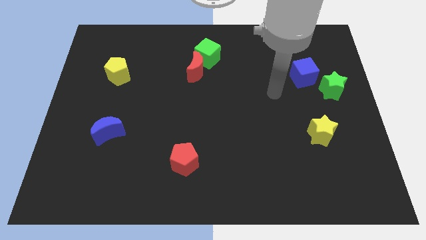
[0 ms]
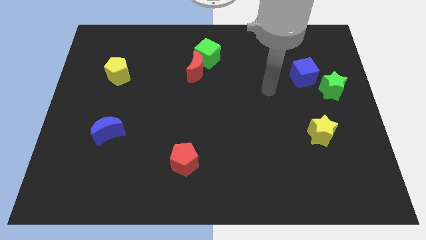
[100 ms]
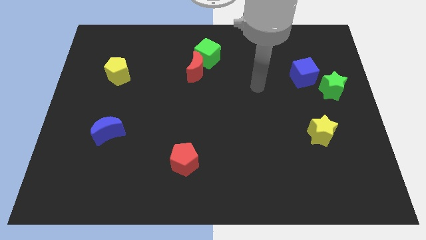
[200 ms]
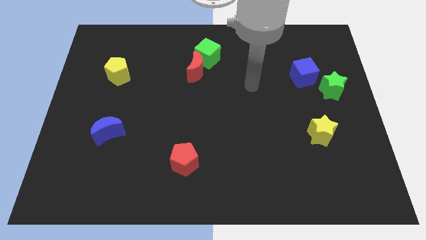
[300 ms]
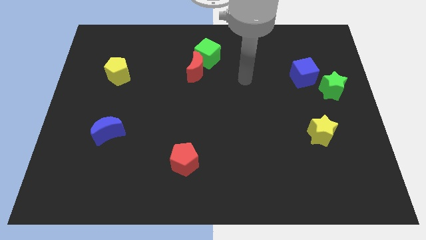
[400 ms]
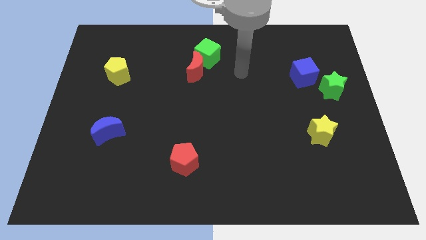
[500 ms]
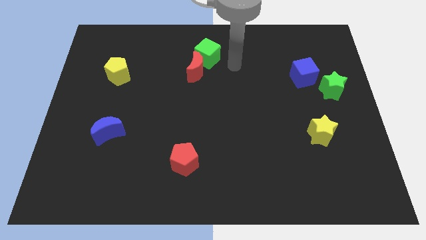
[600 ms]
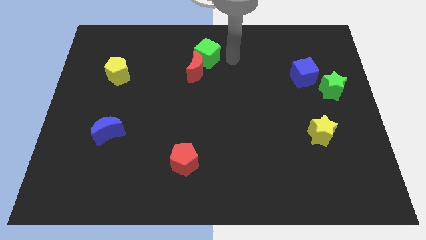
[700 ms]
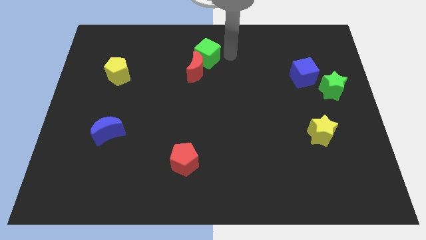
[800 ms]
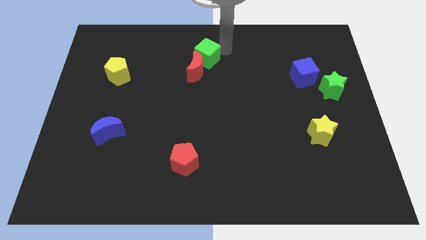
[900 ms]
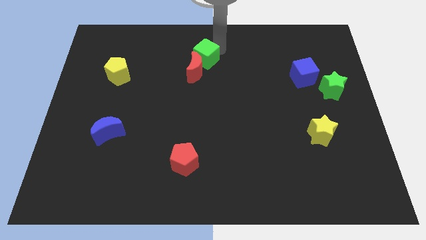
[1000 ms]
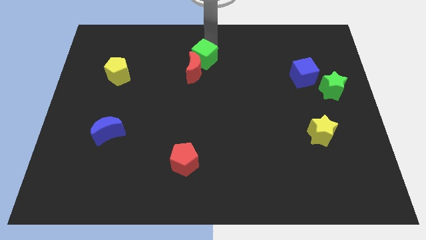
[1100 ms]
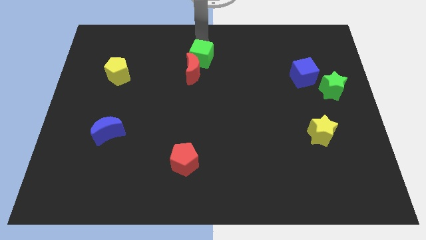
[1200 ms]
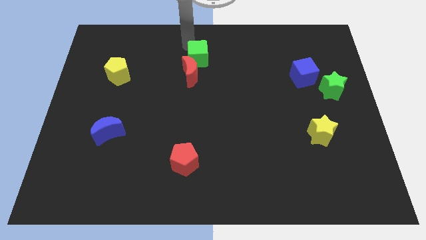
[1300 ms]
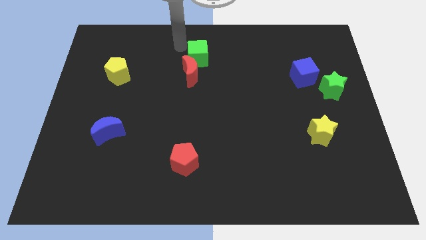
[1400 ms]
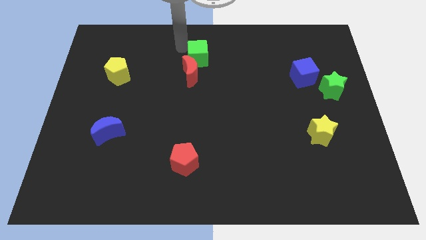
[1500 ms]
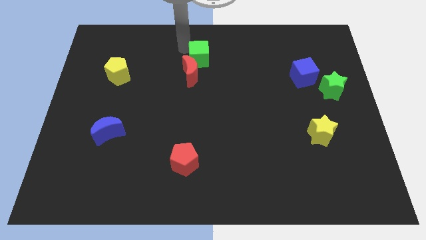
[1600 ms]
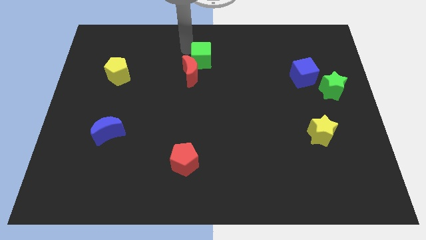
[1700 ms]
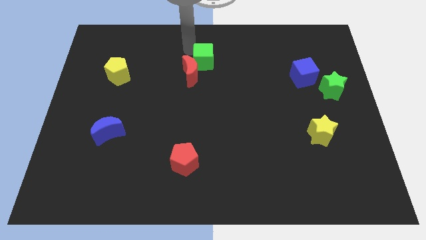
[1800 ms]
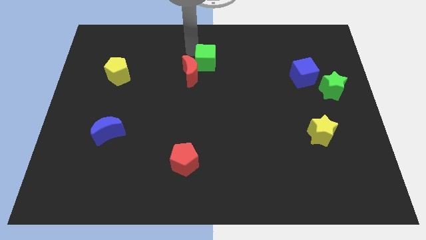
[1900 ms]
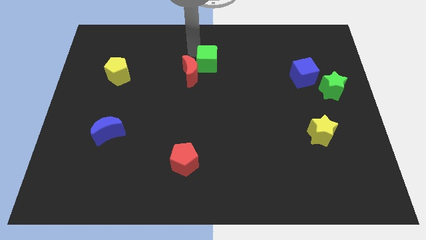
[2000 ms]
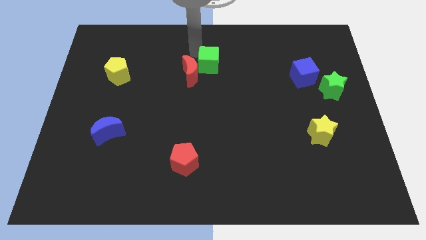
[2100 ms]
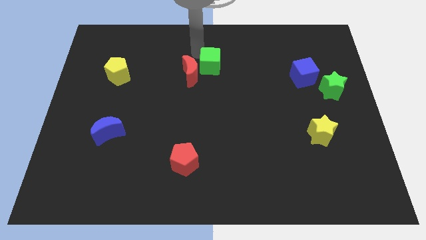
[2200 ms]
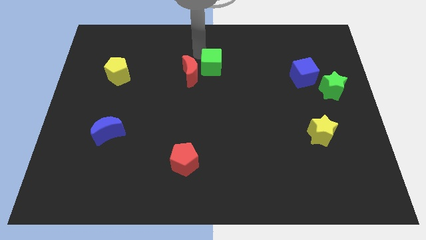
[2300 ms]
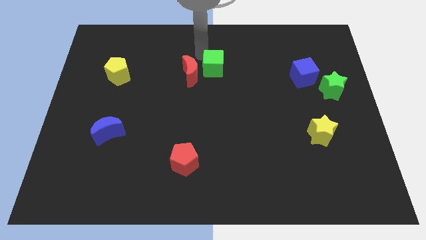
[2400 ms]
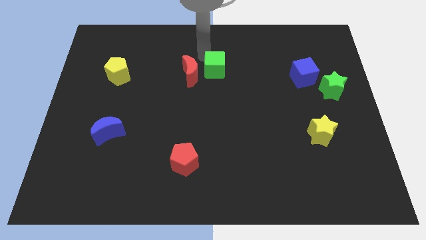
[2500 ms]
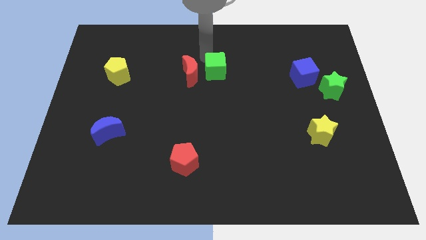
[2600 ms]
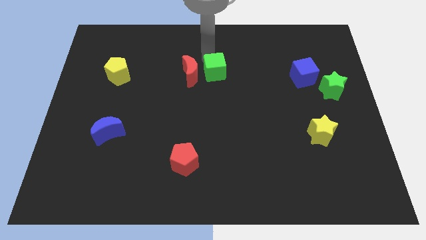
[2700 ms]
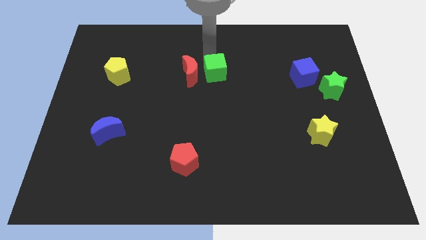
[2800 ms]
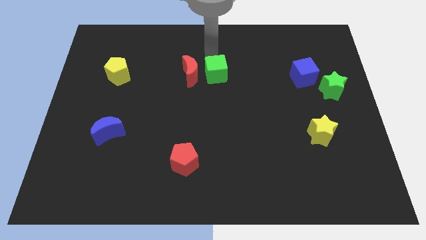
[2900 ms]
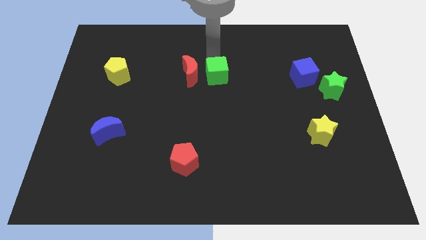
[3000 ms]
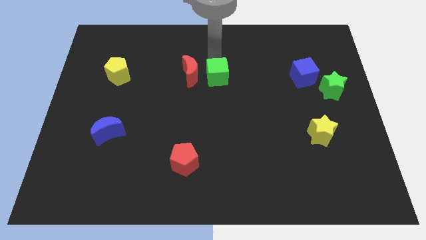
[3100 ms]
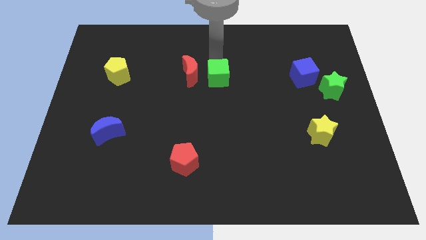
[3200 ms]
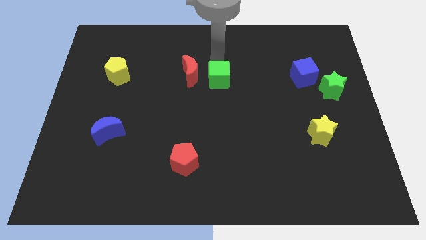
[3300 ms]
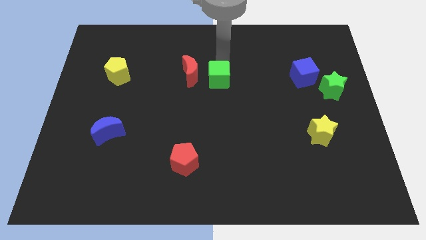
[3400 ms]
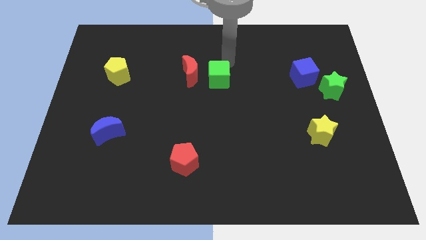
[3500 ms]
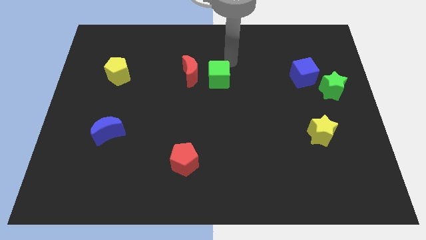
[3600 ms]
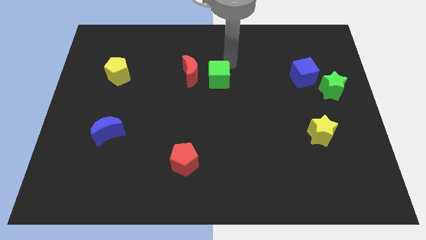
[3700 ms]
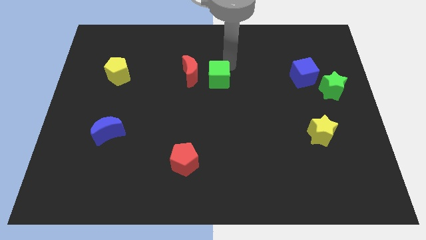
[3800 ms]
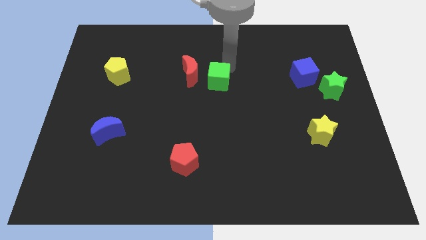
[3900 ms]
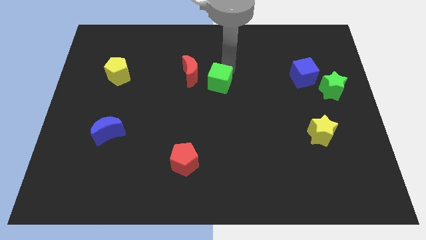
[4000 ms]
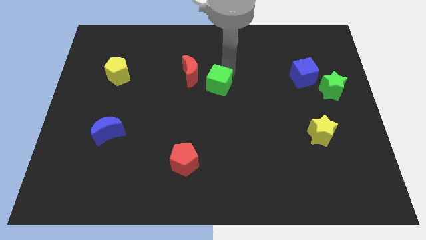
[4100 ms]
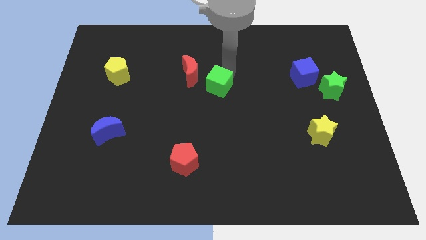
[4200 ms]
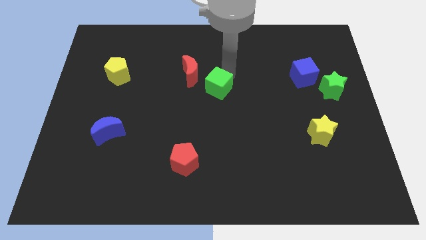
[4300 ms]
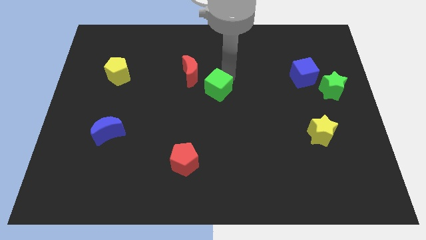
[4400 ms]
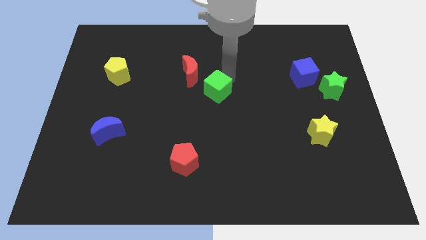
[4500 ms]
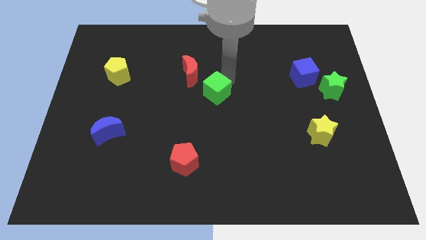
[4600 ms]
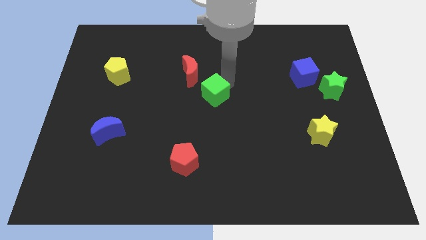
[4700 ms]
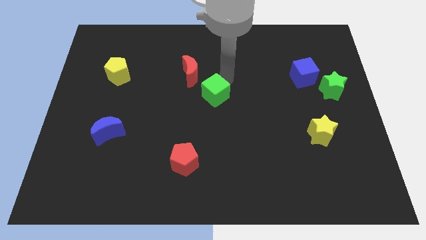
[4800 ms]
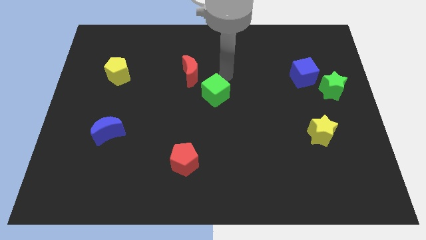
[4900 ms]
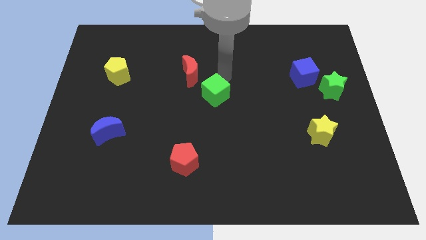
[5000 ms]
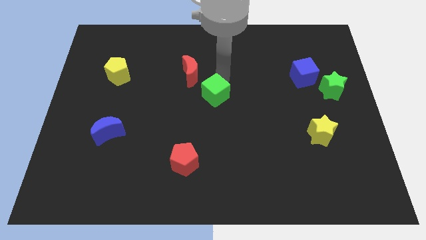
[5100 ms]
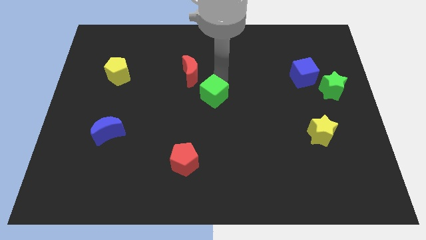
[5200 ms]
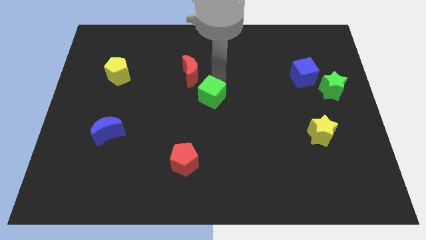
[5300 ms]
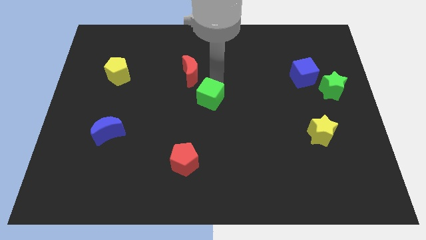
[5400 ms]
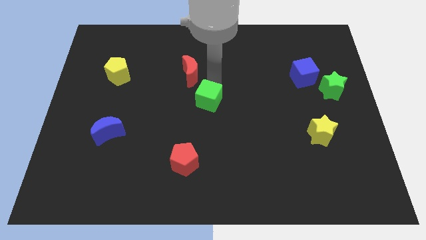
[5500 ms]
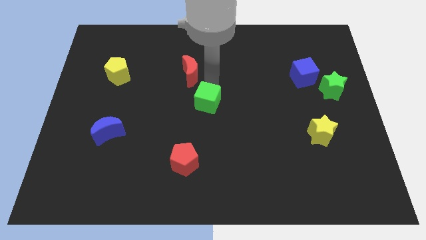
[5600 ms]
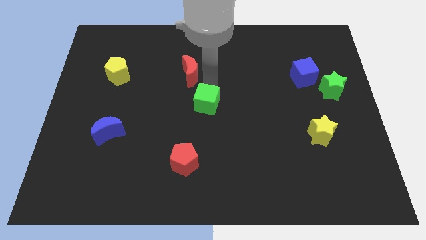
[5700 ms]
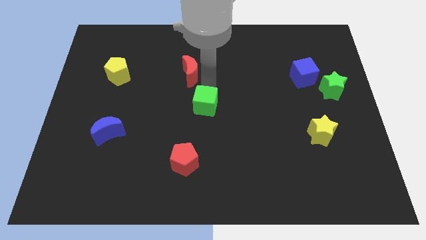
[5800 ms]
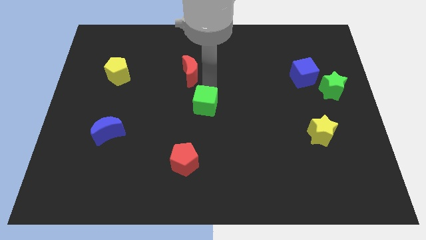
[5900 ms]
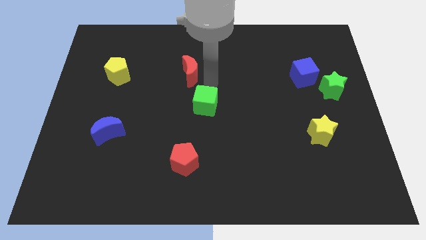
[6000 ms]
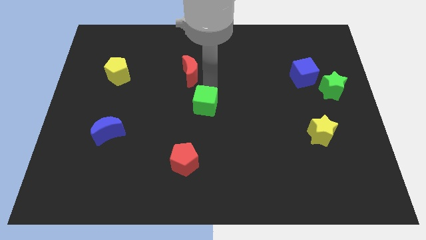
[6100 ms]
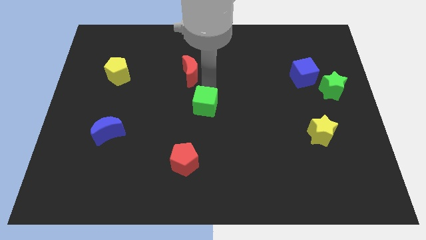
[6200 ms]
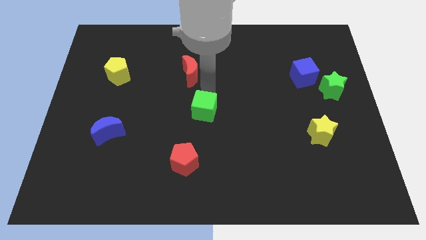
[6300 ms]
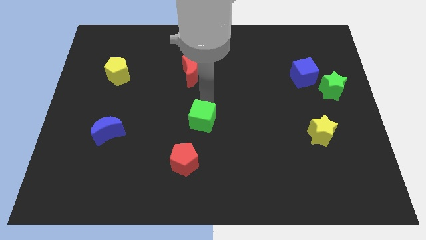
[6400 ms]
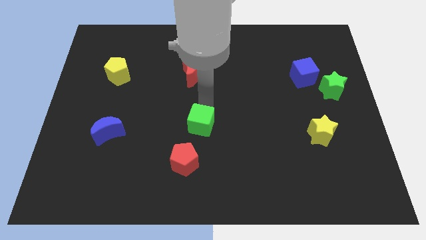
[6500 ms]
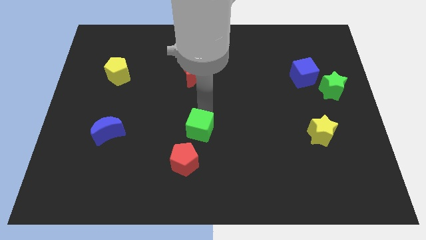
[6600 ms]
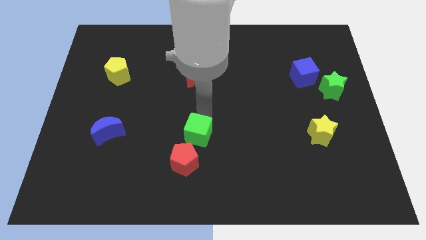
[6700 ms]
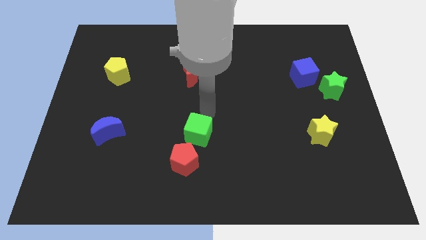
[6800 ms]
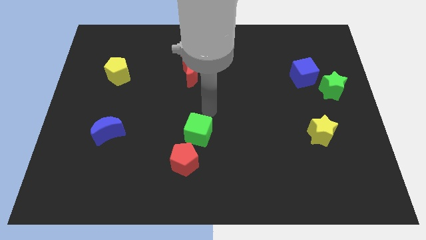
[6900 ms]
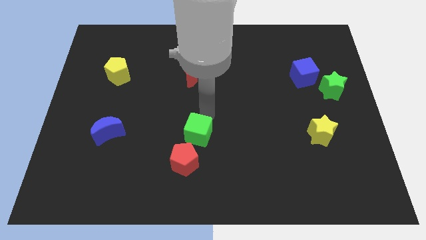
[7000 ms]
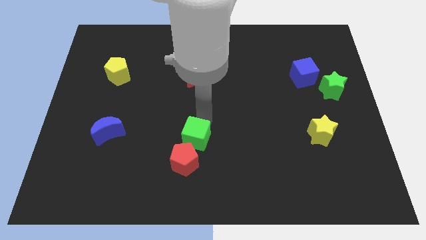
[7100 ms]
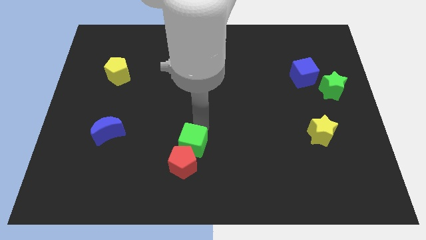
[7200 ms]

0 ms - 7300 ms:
put the green cube to the red pentagon

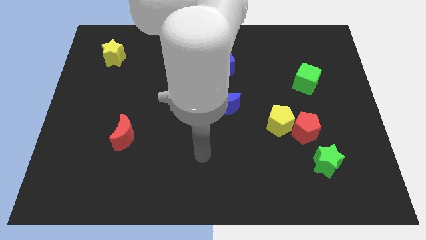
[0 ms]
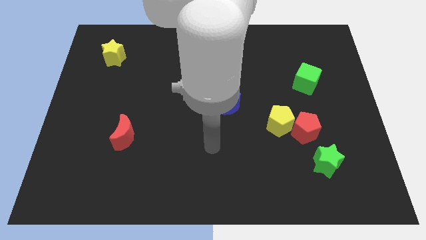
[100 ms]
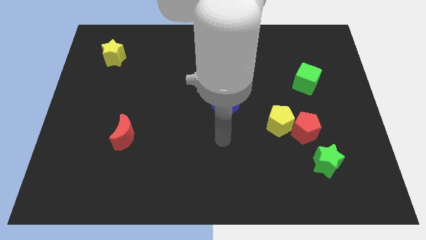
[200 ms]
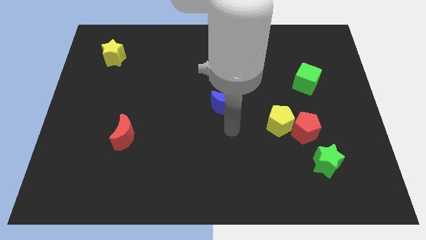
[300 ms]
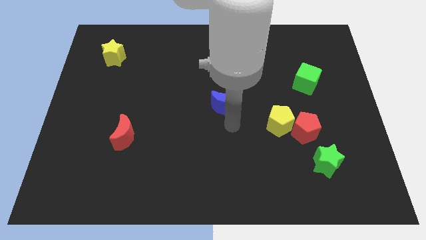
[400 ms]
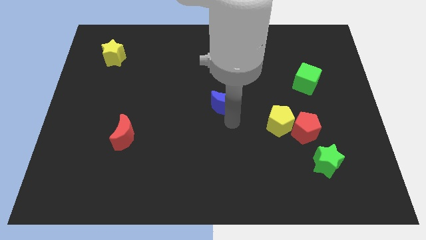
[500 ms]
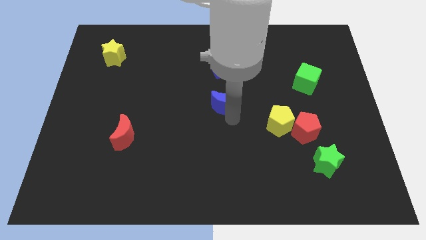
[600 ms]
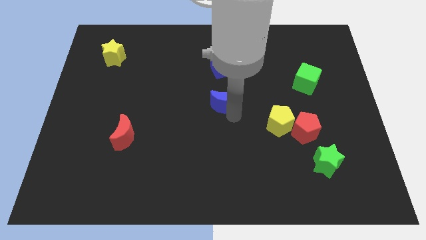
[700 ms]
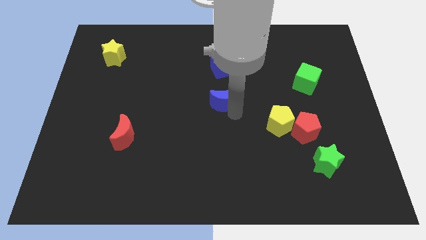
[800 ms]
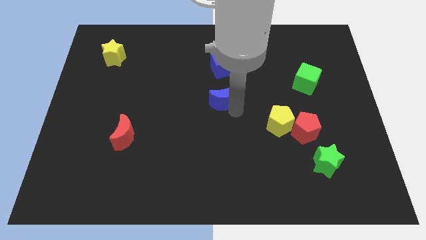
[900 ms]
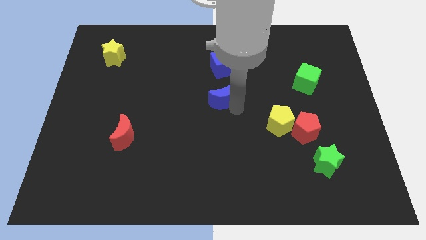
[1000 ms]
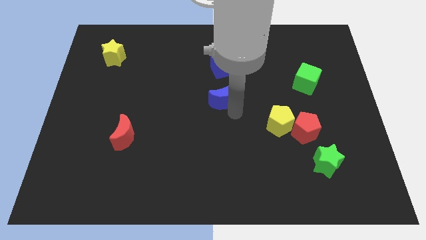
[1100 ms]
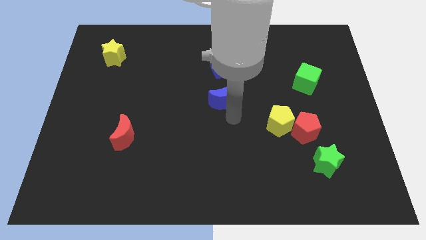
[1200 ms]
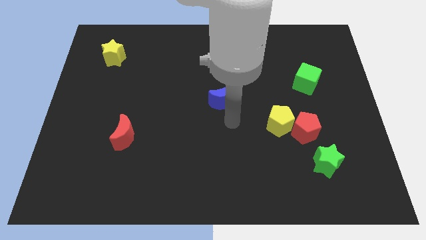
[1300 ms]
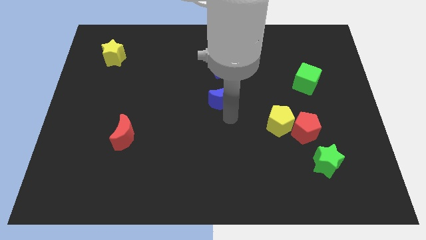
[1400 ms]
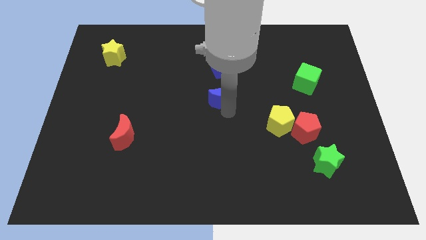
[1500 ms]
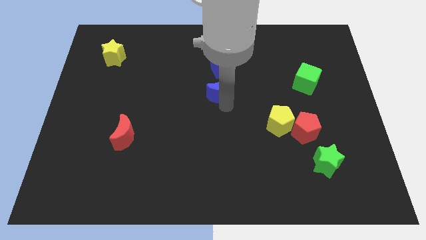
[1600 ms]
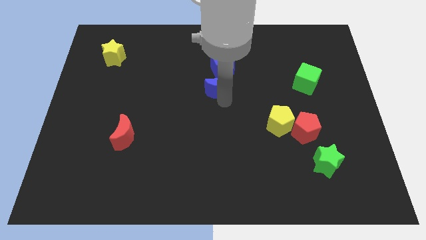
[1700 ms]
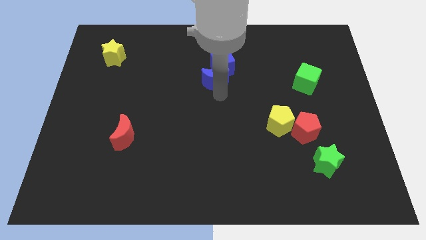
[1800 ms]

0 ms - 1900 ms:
move the blue moon to the blue cube
